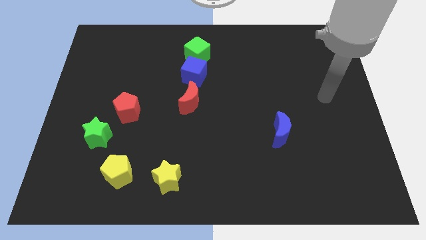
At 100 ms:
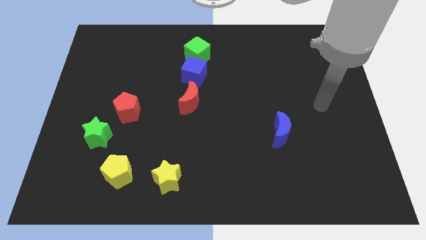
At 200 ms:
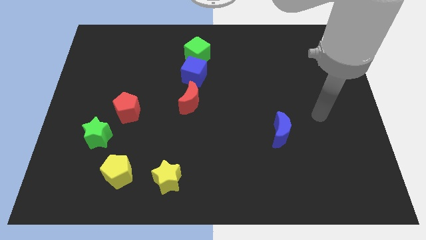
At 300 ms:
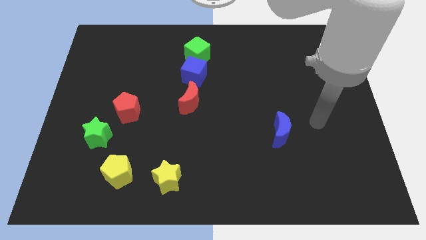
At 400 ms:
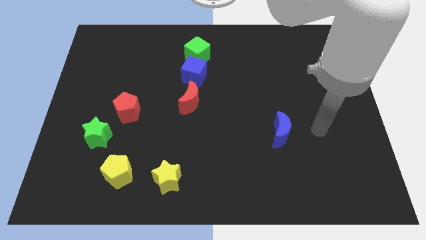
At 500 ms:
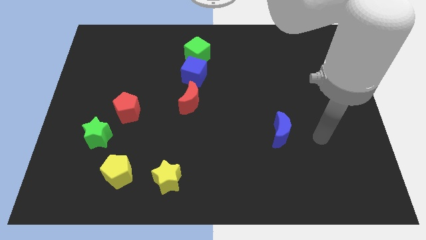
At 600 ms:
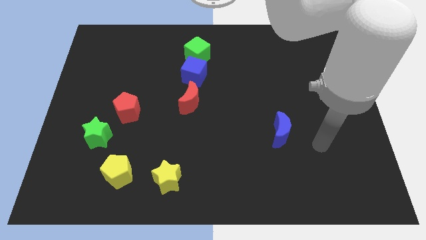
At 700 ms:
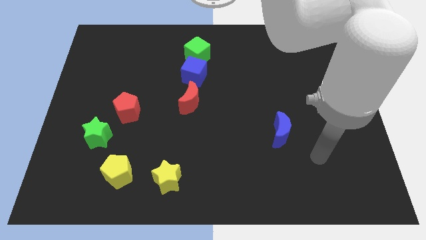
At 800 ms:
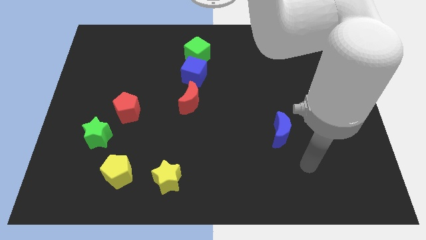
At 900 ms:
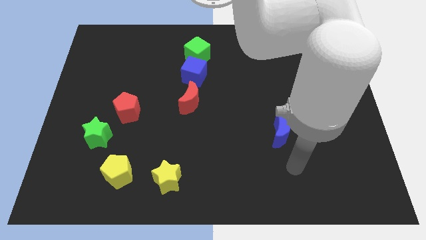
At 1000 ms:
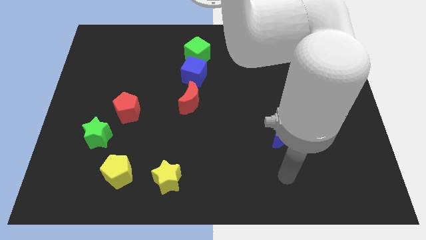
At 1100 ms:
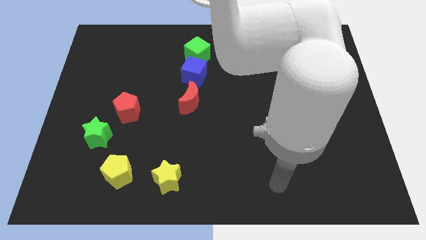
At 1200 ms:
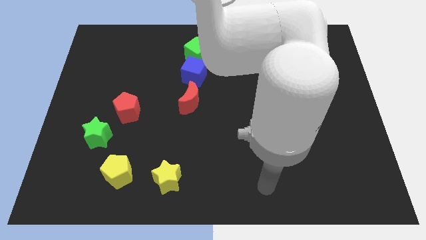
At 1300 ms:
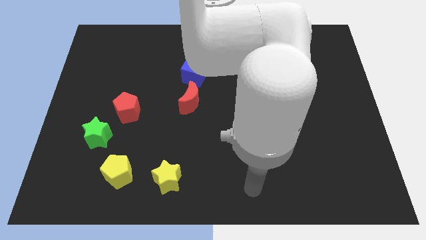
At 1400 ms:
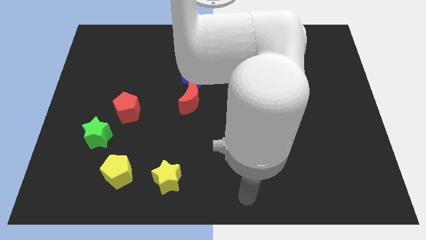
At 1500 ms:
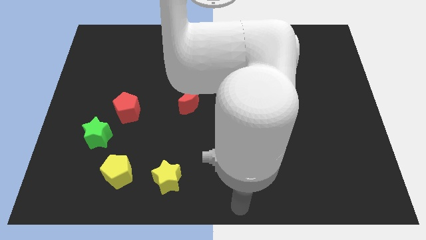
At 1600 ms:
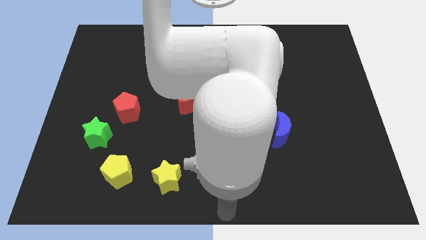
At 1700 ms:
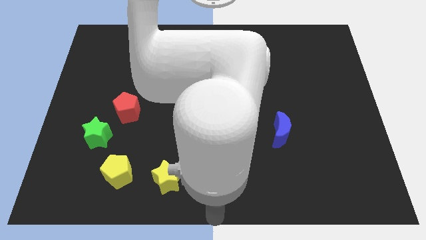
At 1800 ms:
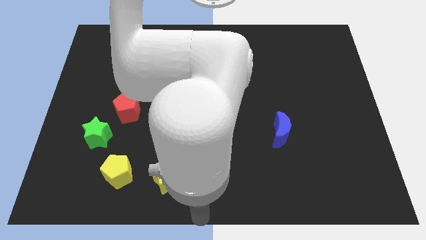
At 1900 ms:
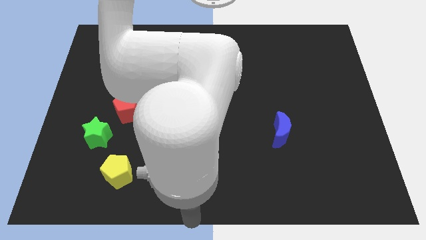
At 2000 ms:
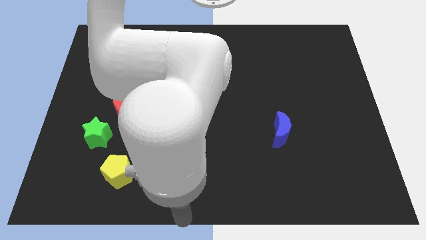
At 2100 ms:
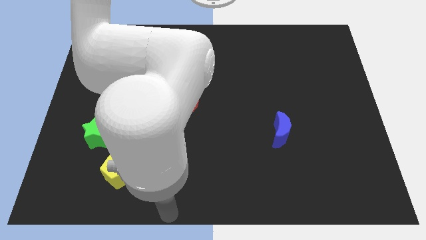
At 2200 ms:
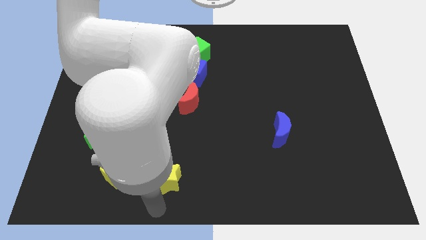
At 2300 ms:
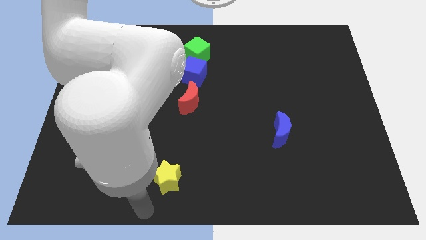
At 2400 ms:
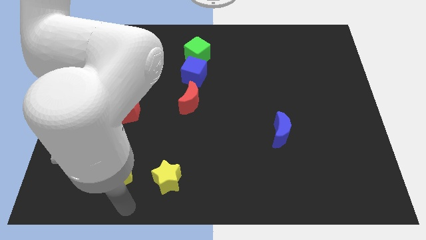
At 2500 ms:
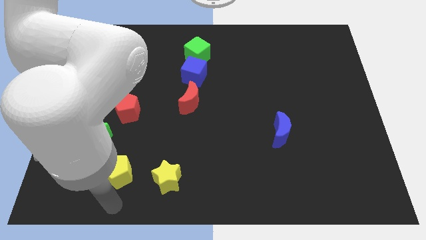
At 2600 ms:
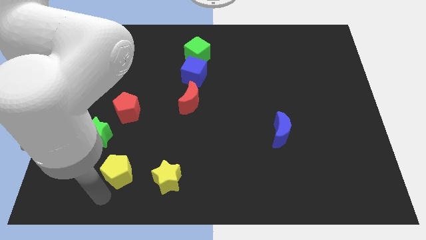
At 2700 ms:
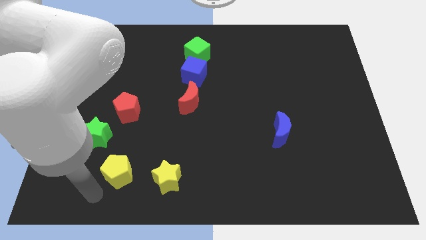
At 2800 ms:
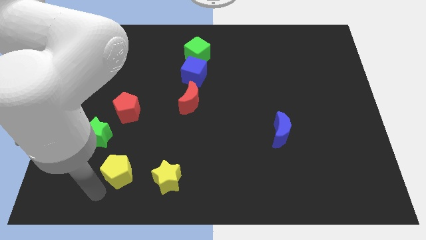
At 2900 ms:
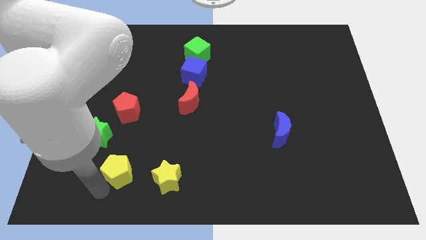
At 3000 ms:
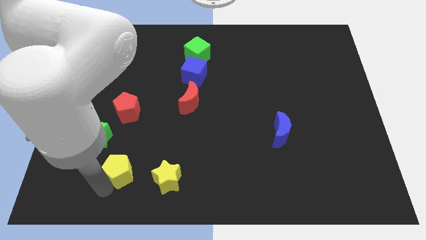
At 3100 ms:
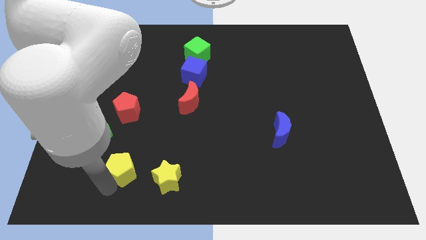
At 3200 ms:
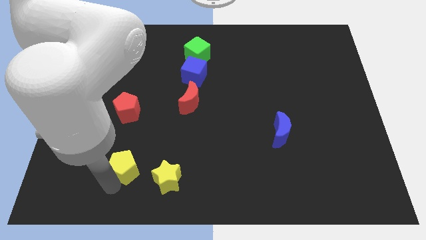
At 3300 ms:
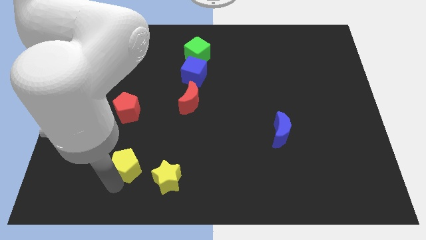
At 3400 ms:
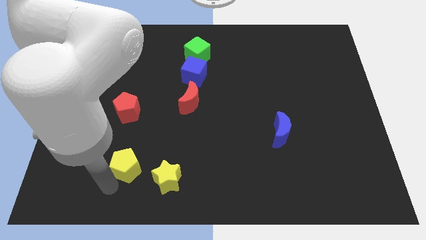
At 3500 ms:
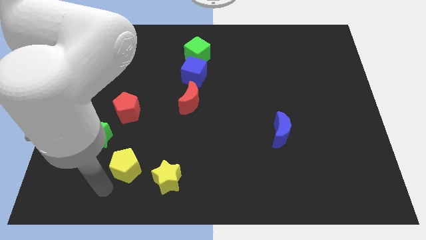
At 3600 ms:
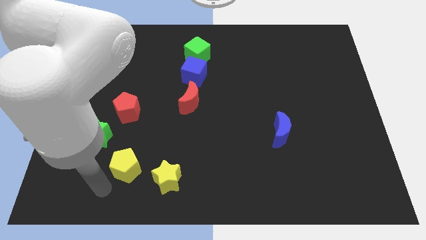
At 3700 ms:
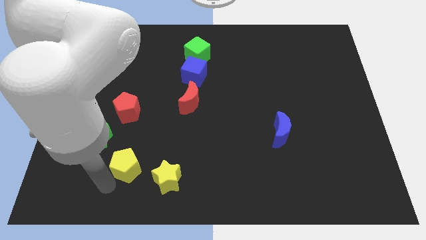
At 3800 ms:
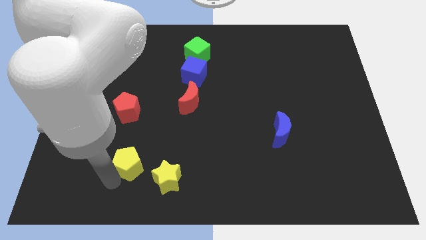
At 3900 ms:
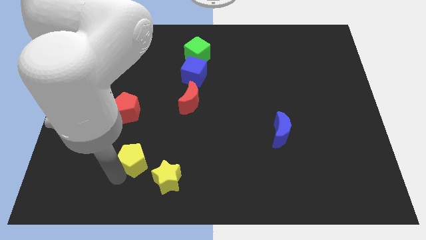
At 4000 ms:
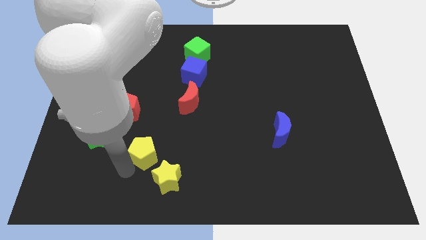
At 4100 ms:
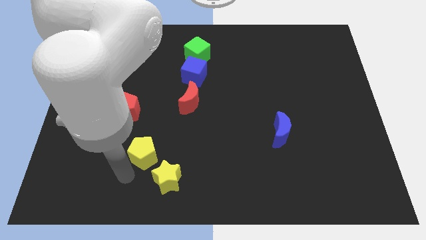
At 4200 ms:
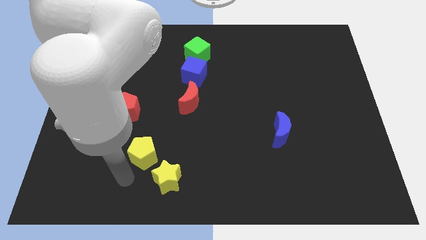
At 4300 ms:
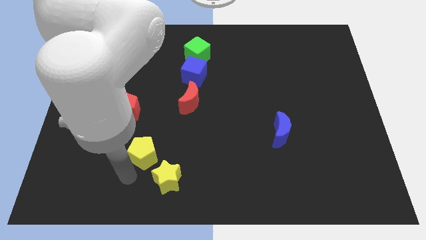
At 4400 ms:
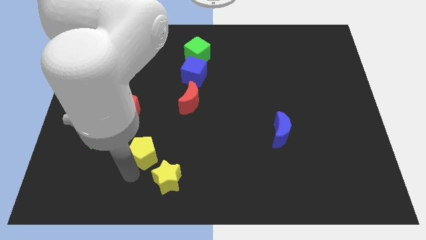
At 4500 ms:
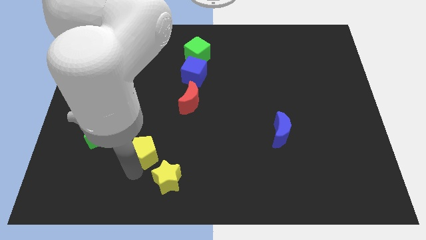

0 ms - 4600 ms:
slightly push the yellow pentagon up and right

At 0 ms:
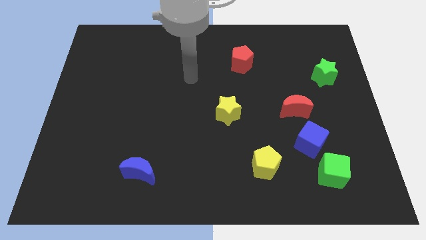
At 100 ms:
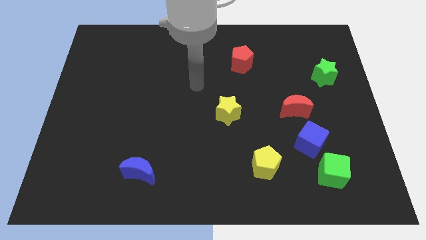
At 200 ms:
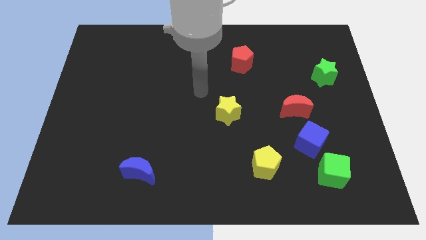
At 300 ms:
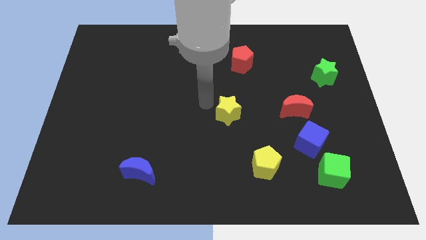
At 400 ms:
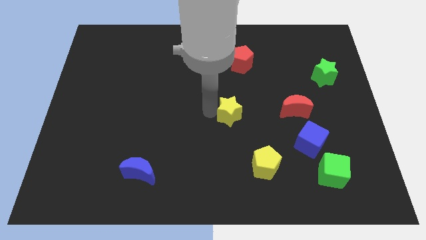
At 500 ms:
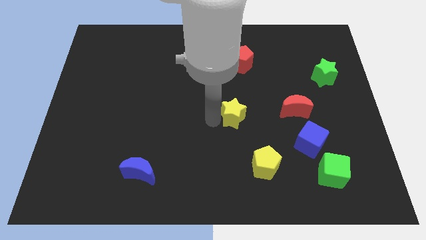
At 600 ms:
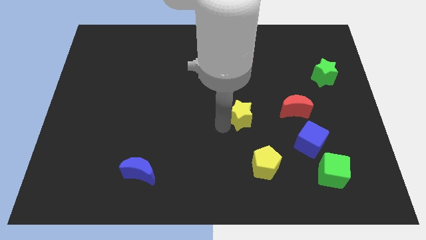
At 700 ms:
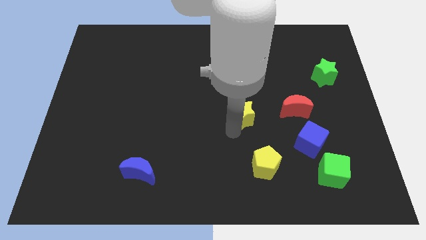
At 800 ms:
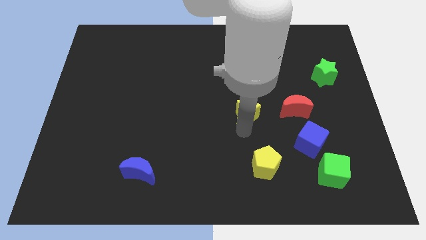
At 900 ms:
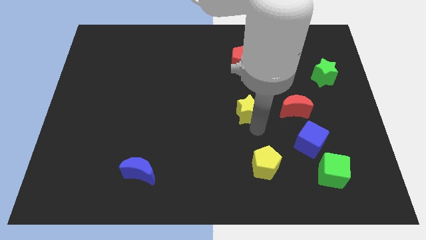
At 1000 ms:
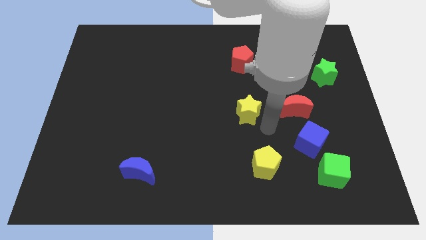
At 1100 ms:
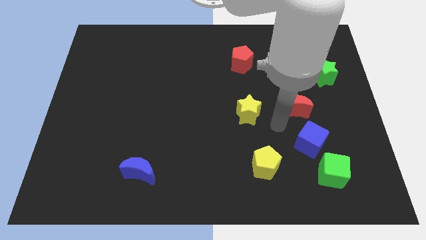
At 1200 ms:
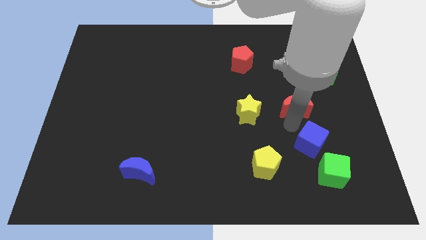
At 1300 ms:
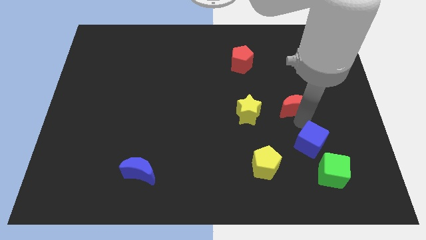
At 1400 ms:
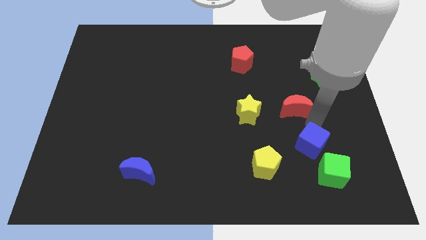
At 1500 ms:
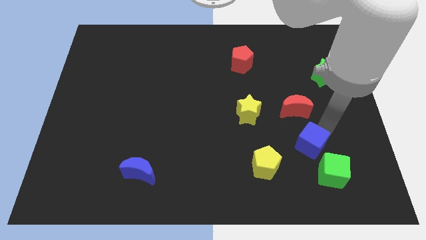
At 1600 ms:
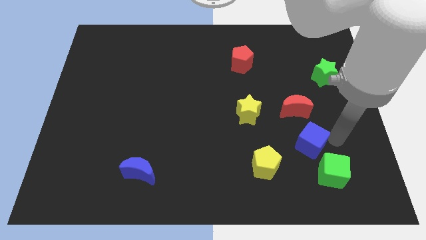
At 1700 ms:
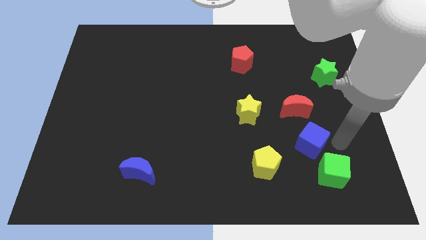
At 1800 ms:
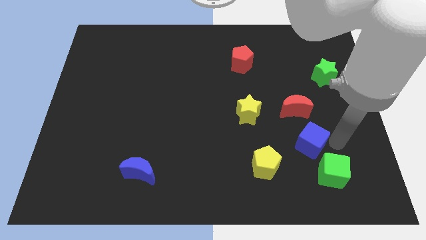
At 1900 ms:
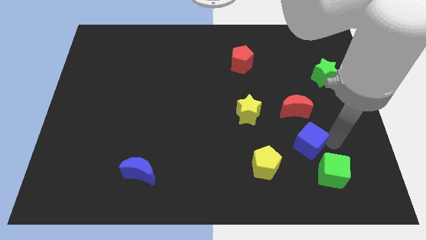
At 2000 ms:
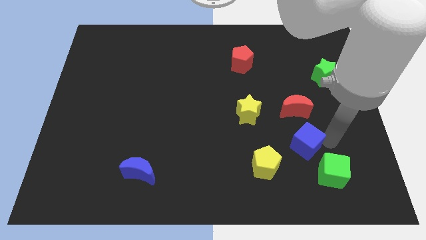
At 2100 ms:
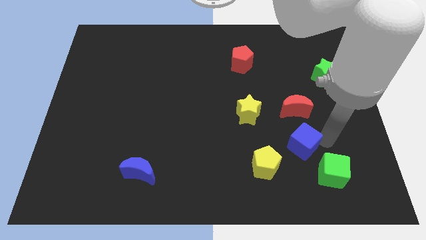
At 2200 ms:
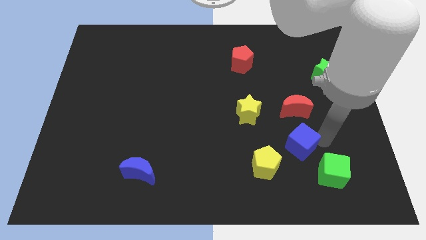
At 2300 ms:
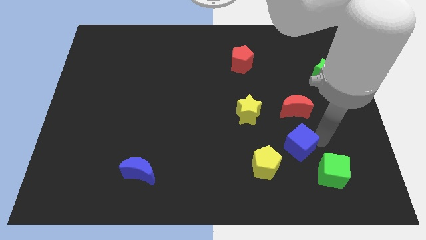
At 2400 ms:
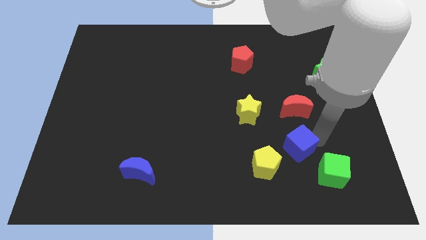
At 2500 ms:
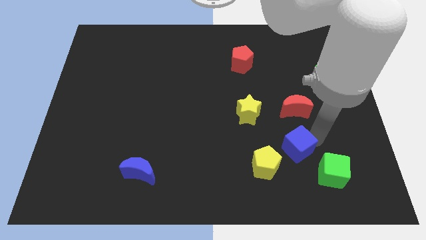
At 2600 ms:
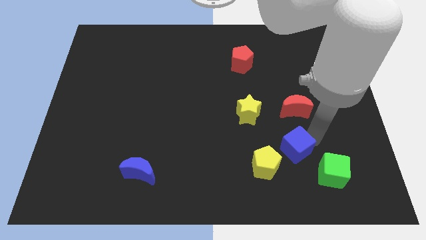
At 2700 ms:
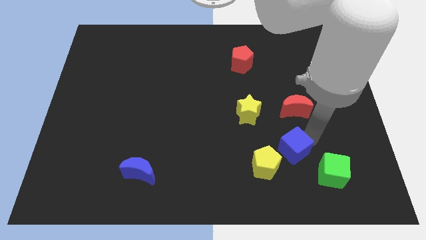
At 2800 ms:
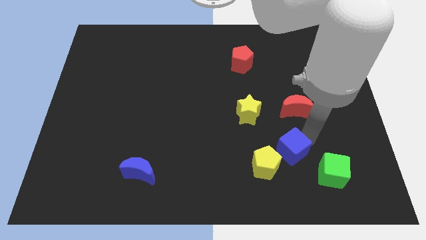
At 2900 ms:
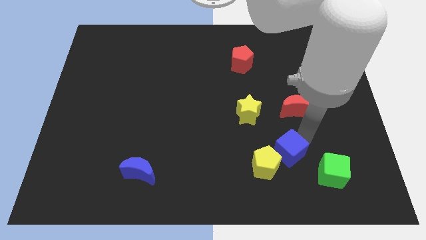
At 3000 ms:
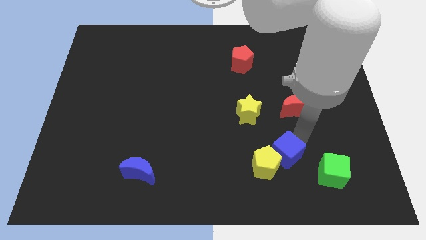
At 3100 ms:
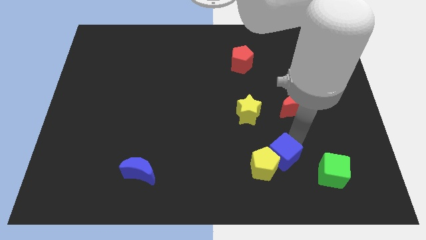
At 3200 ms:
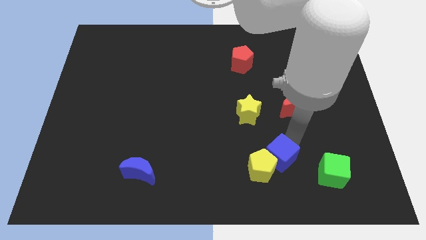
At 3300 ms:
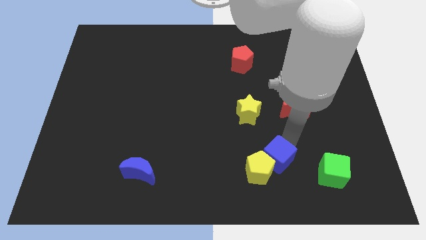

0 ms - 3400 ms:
slightly push the blue cube left
